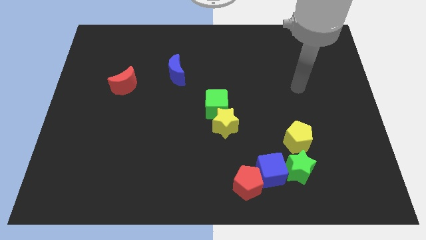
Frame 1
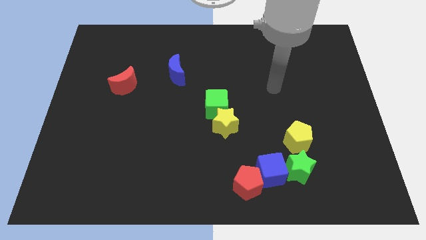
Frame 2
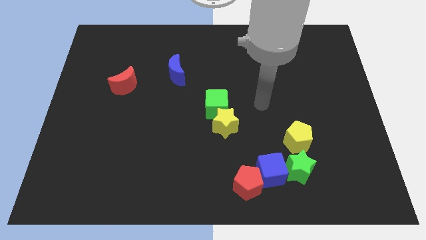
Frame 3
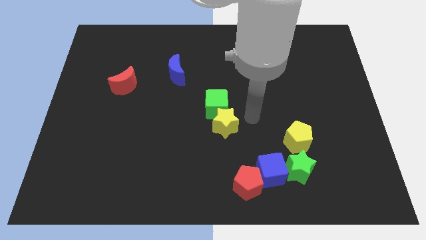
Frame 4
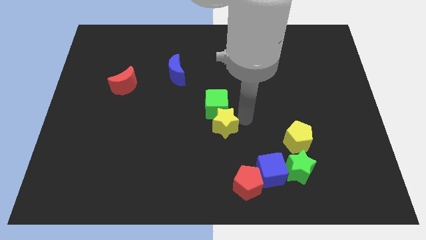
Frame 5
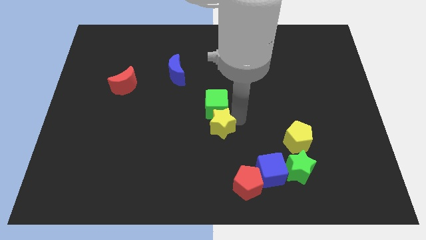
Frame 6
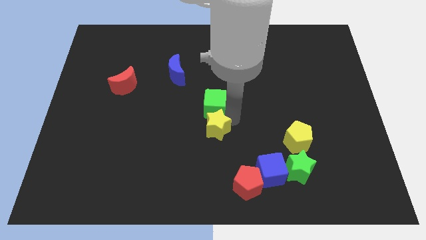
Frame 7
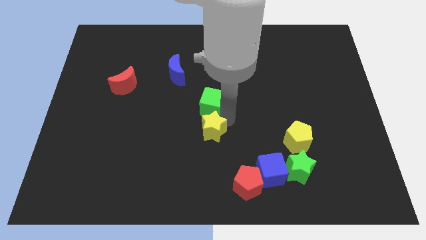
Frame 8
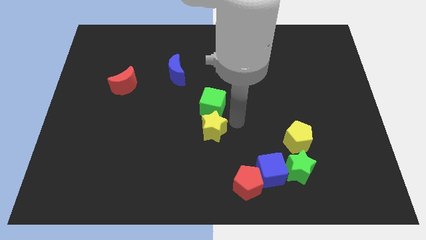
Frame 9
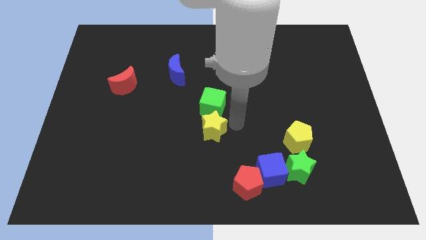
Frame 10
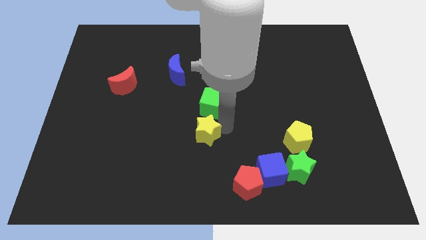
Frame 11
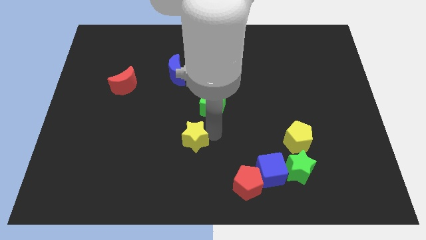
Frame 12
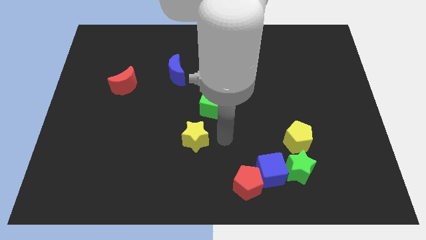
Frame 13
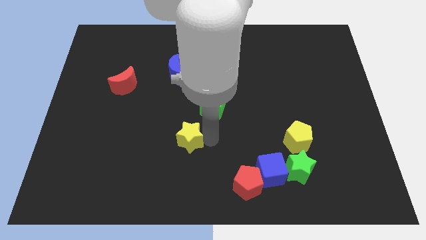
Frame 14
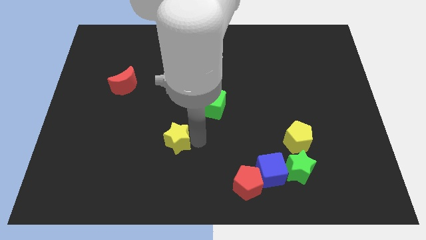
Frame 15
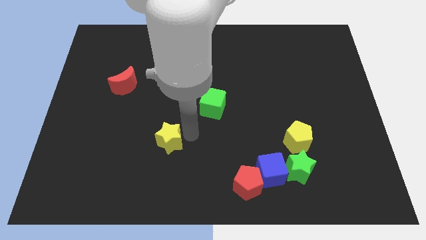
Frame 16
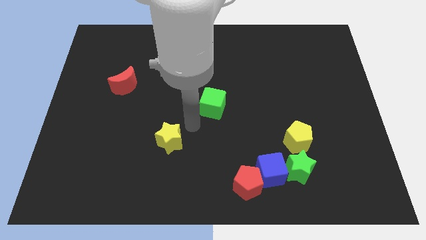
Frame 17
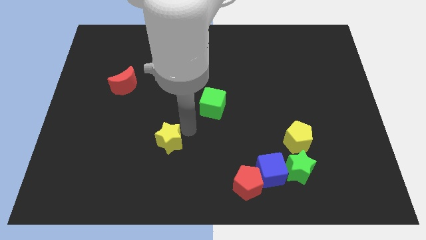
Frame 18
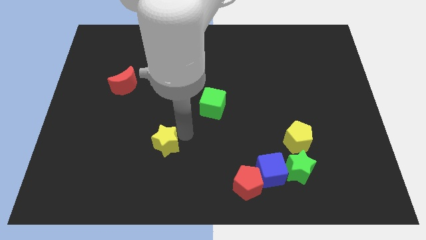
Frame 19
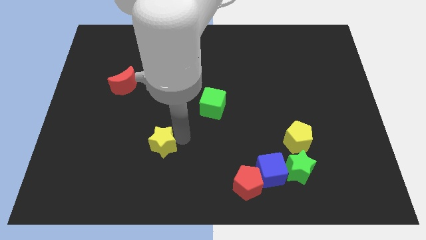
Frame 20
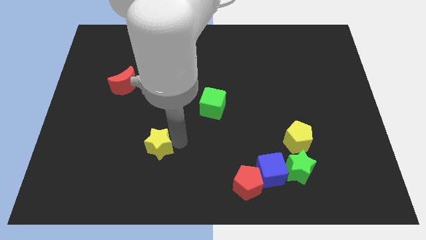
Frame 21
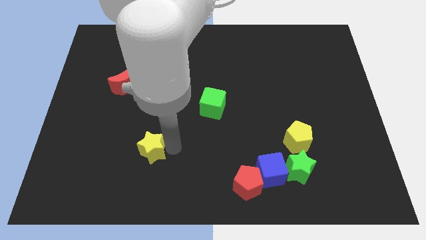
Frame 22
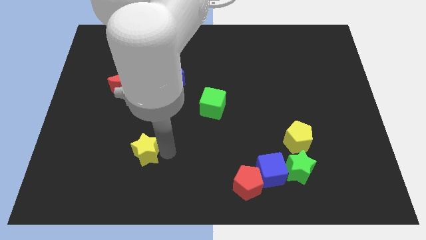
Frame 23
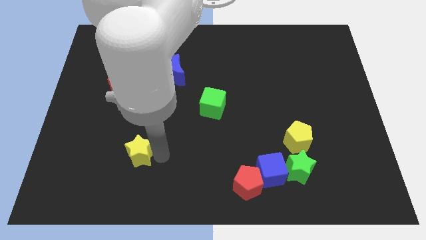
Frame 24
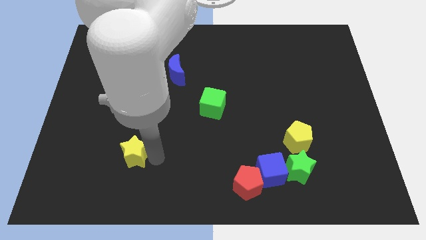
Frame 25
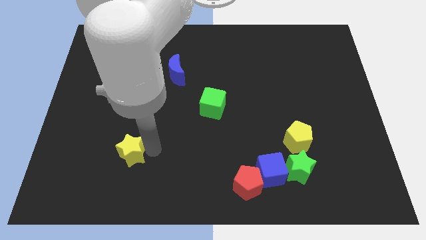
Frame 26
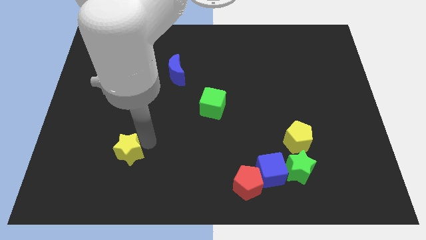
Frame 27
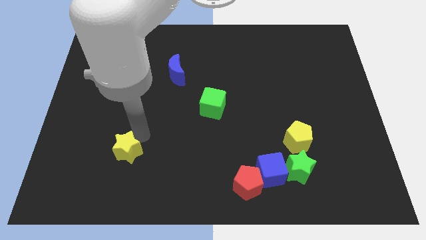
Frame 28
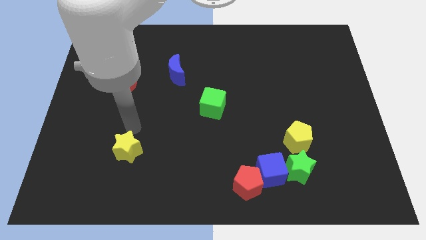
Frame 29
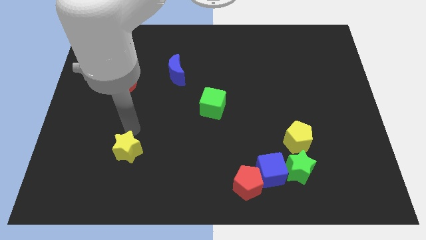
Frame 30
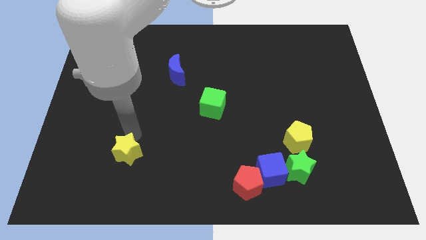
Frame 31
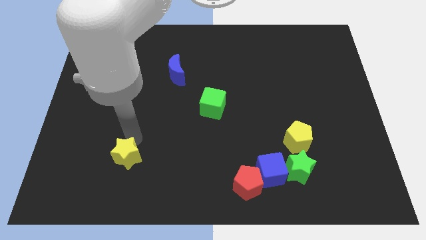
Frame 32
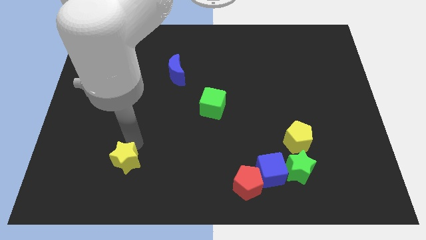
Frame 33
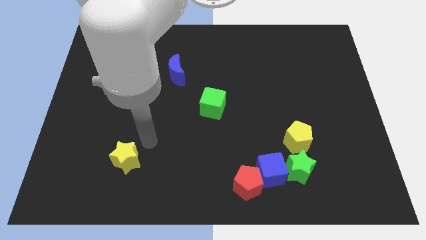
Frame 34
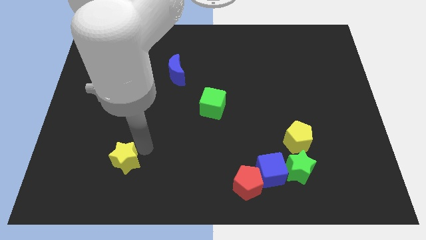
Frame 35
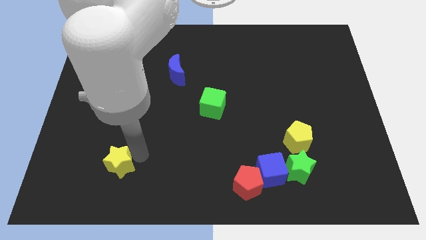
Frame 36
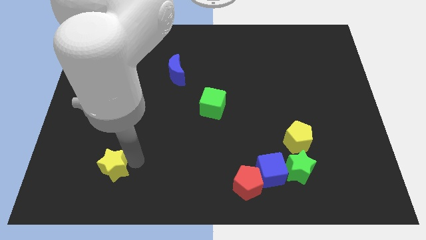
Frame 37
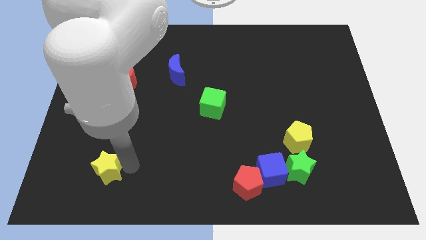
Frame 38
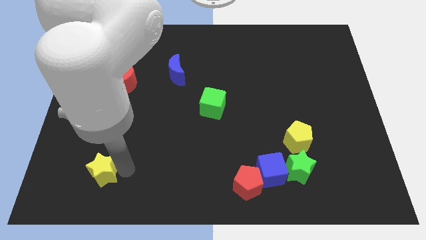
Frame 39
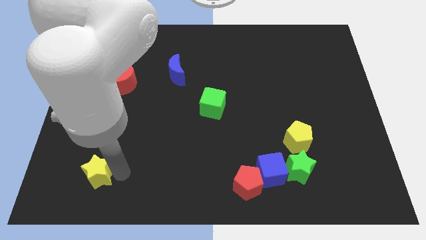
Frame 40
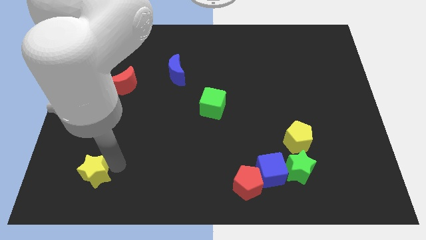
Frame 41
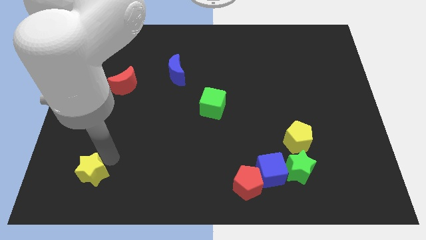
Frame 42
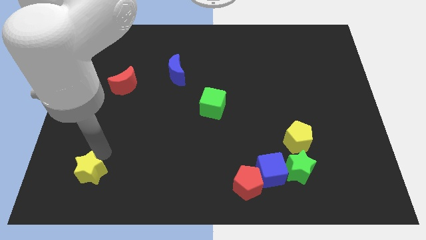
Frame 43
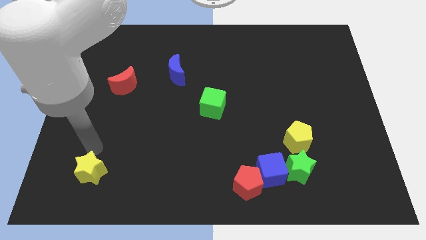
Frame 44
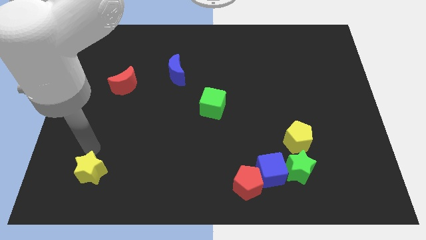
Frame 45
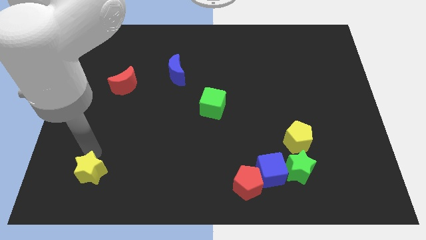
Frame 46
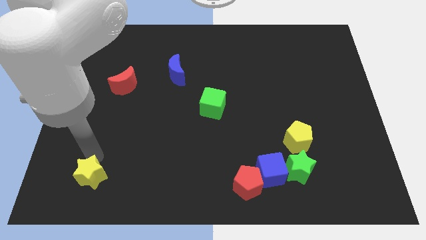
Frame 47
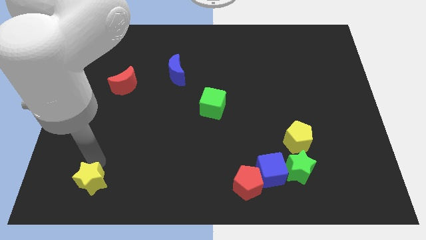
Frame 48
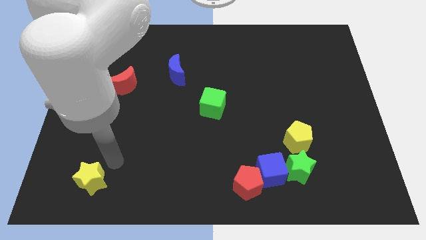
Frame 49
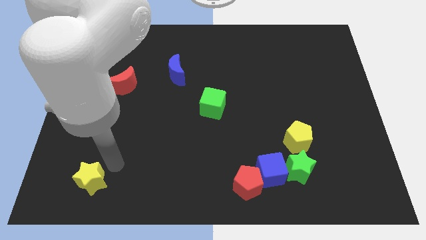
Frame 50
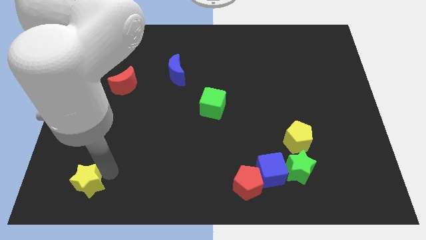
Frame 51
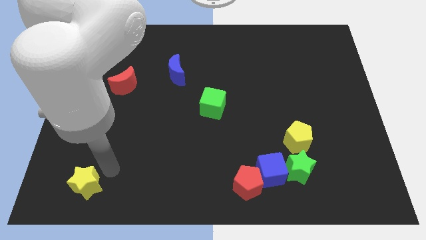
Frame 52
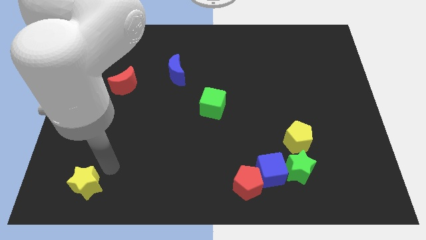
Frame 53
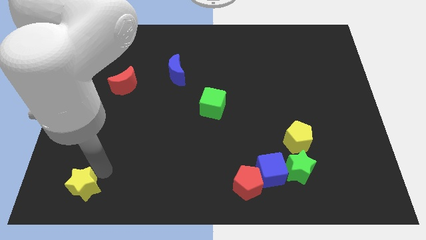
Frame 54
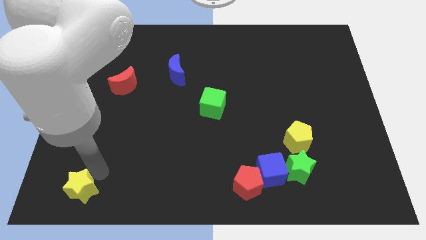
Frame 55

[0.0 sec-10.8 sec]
move the yellow star to the bottom left corner

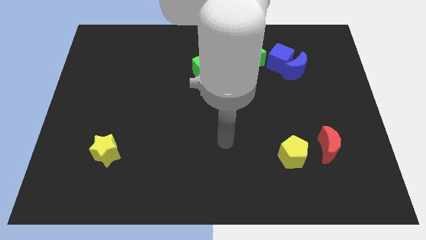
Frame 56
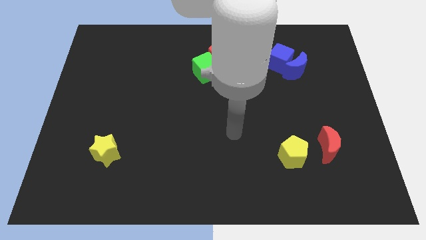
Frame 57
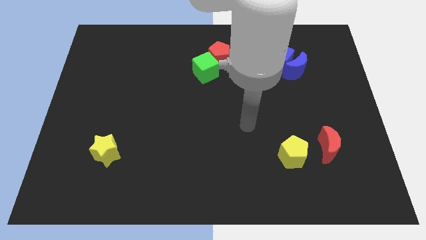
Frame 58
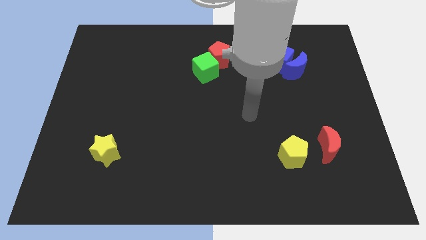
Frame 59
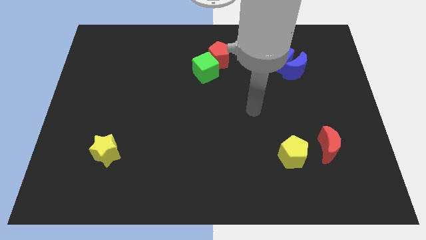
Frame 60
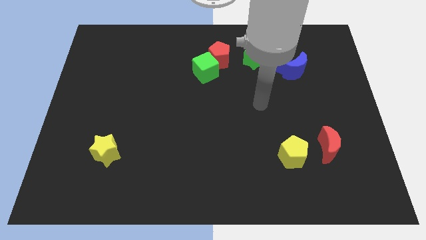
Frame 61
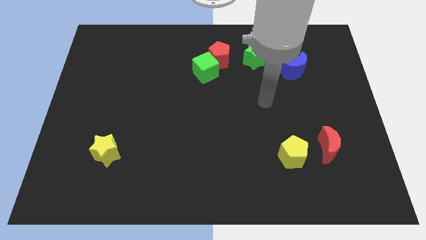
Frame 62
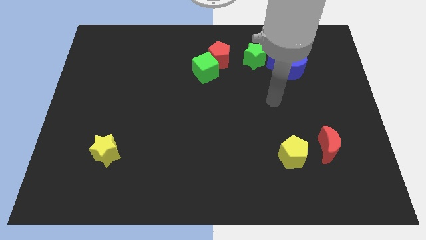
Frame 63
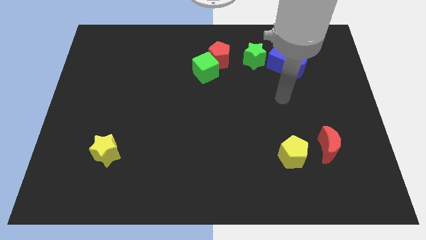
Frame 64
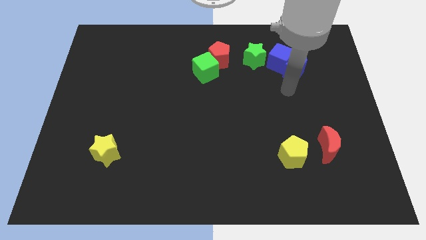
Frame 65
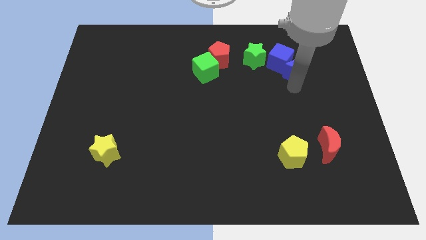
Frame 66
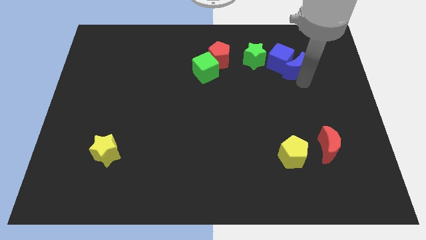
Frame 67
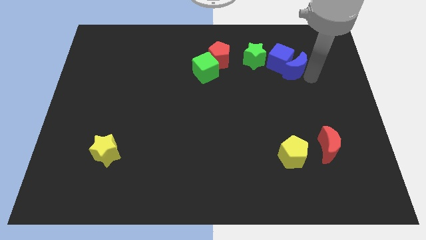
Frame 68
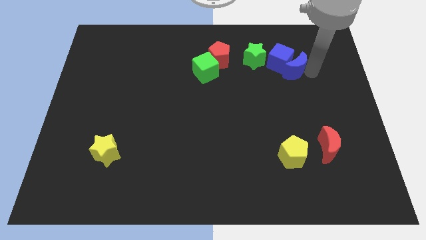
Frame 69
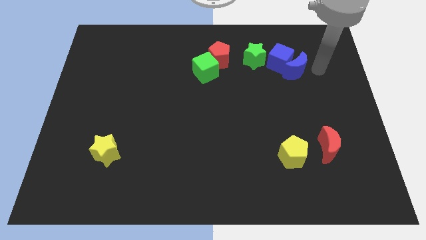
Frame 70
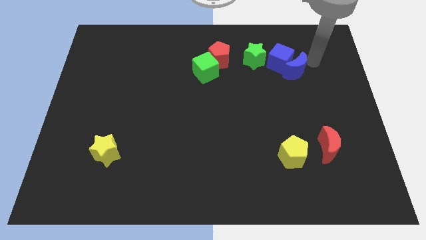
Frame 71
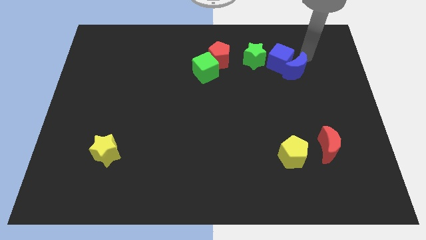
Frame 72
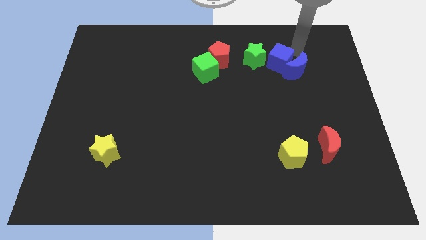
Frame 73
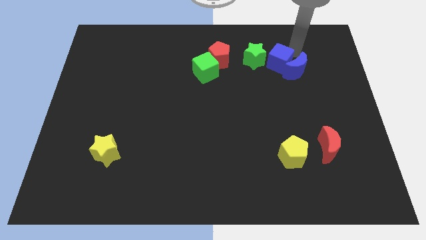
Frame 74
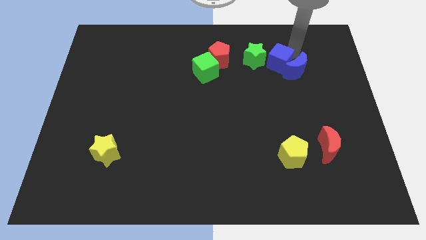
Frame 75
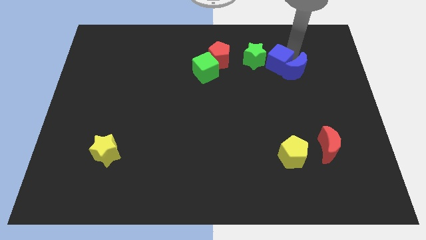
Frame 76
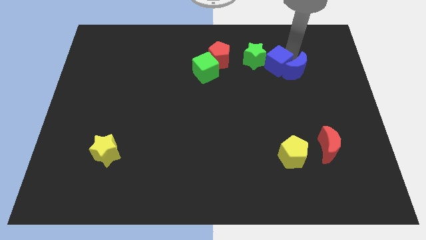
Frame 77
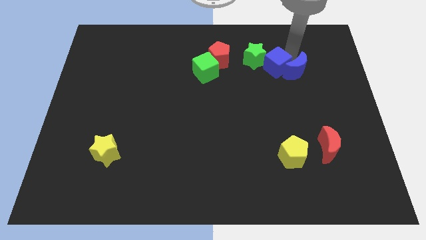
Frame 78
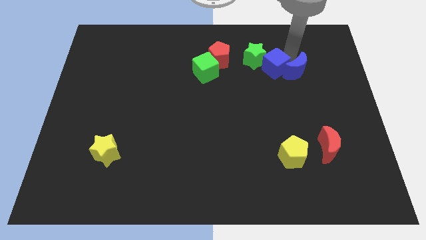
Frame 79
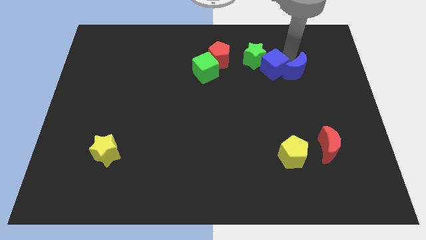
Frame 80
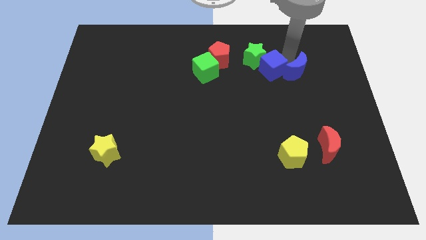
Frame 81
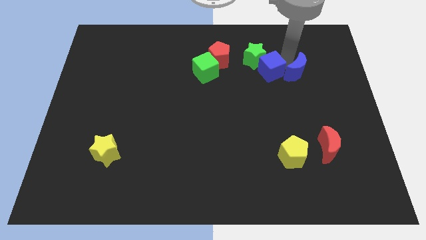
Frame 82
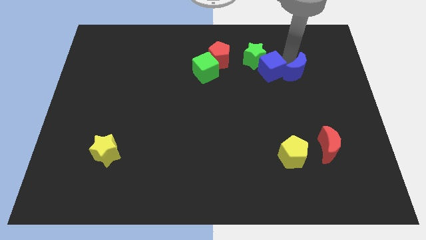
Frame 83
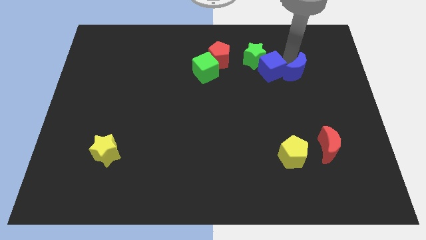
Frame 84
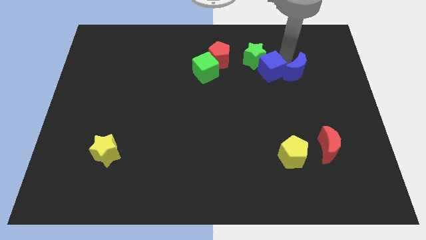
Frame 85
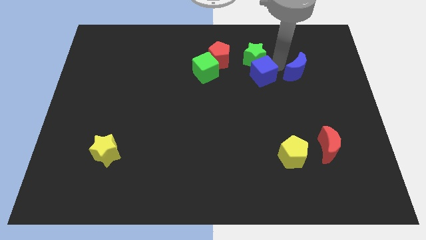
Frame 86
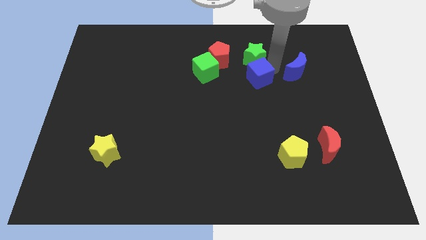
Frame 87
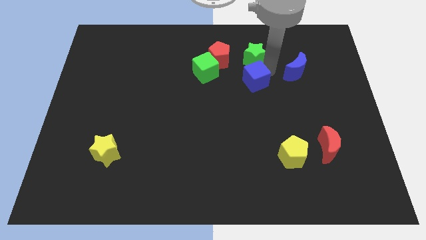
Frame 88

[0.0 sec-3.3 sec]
push the blue cube to the middle of the board
